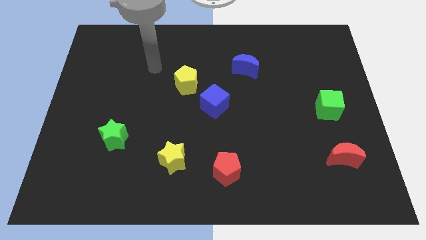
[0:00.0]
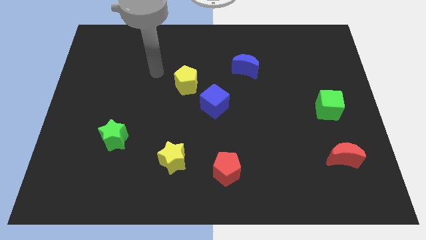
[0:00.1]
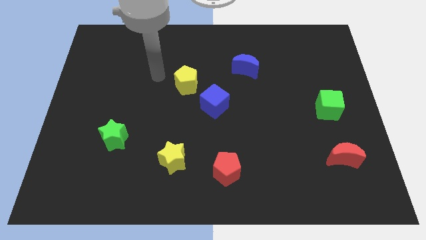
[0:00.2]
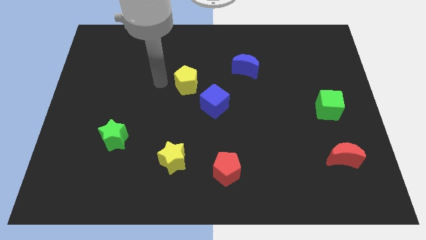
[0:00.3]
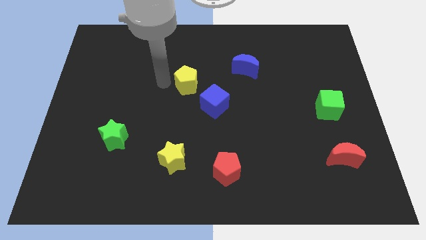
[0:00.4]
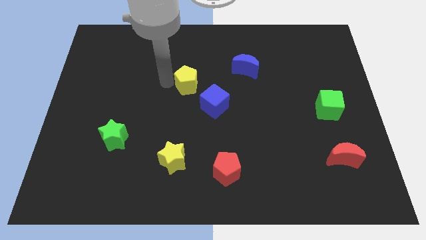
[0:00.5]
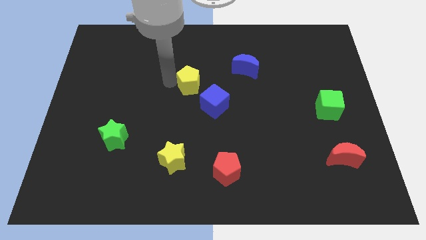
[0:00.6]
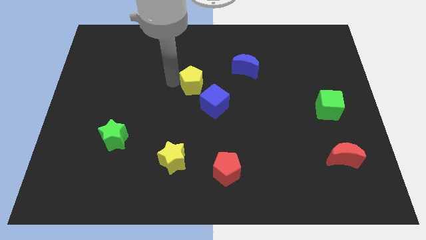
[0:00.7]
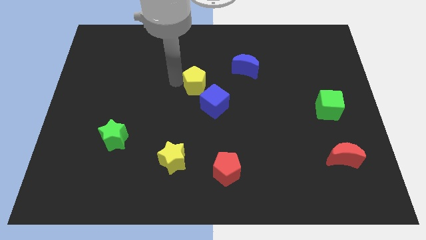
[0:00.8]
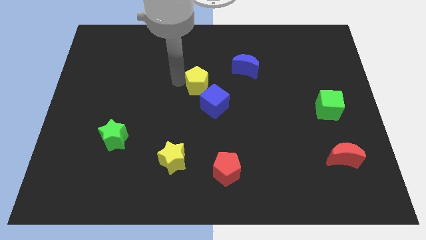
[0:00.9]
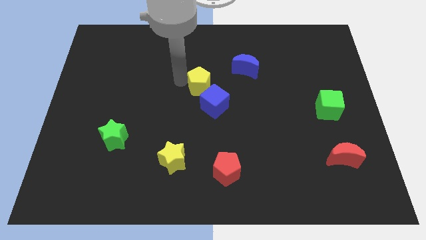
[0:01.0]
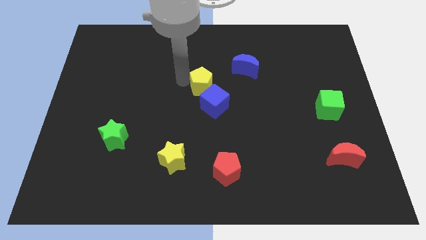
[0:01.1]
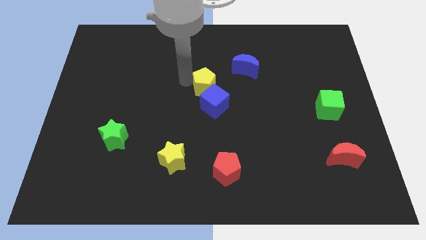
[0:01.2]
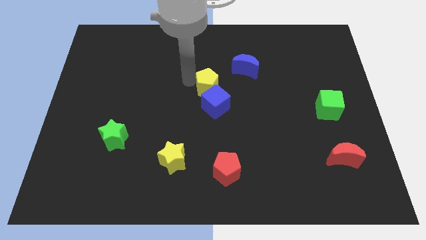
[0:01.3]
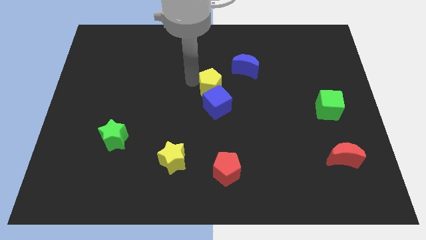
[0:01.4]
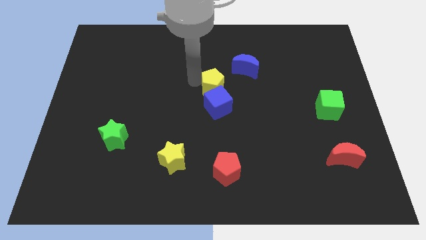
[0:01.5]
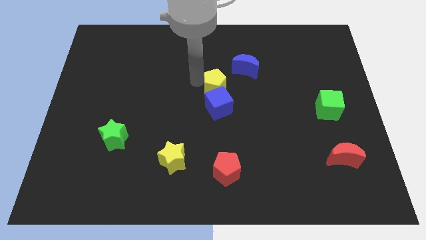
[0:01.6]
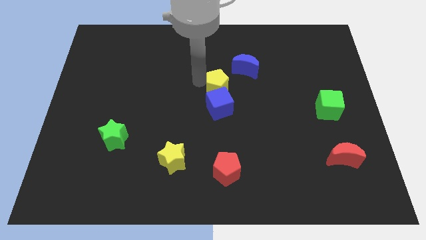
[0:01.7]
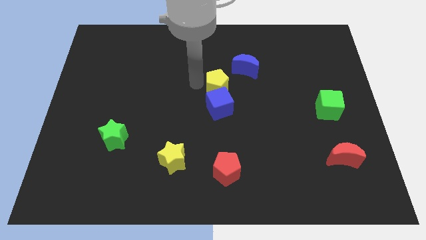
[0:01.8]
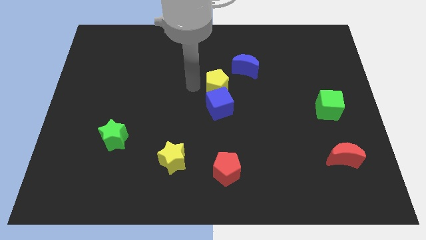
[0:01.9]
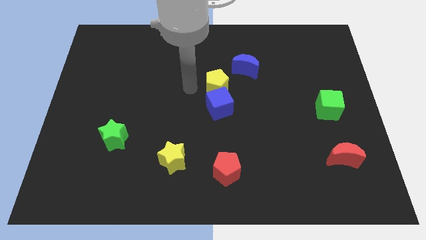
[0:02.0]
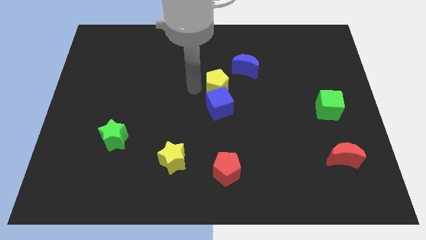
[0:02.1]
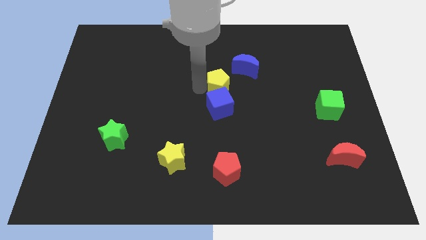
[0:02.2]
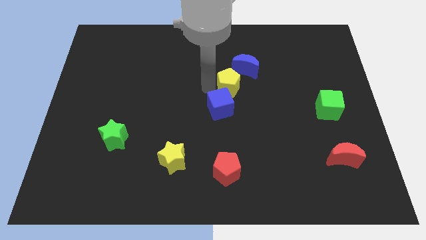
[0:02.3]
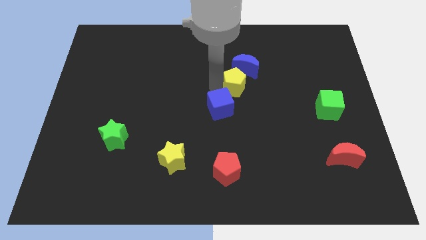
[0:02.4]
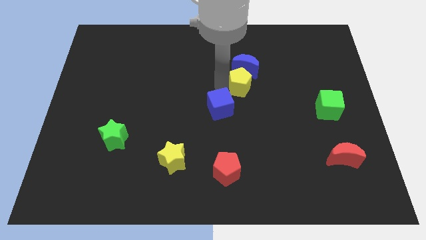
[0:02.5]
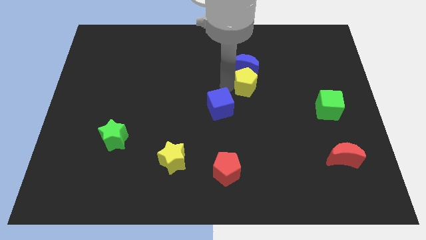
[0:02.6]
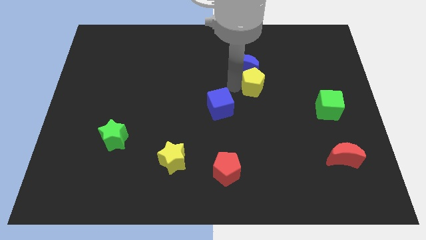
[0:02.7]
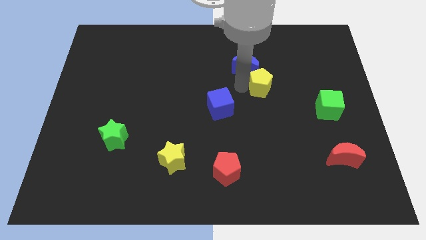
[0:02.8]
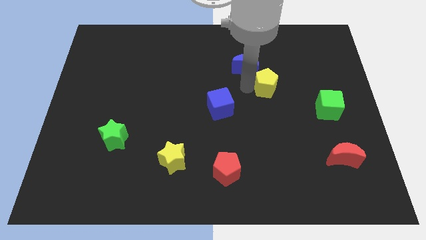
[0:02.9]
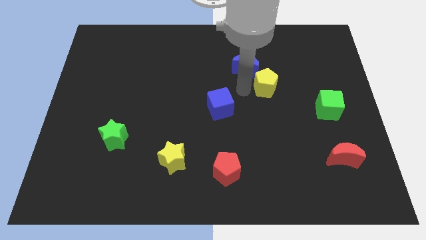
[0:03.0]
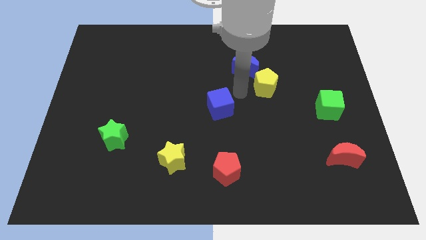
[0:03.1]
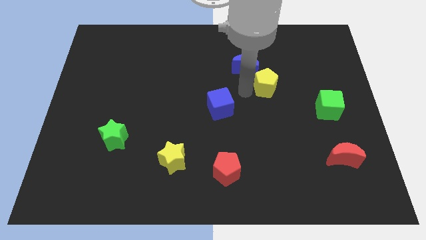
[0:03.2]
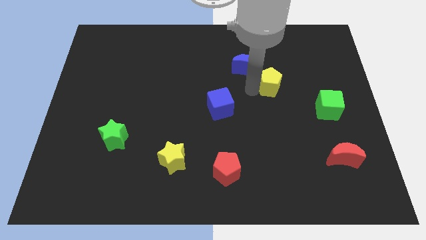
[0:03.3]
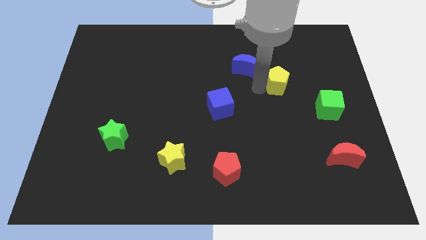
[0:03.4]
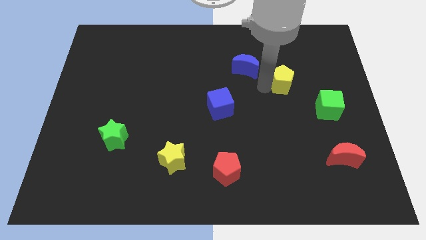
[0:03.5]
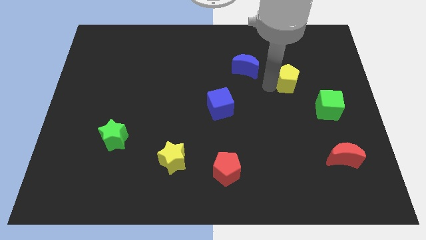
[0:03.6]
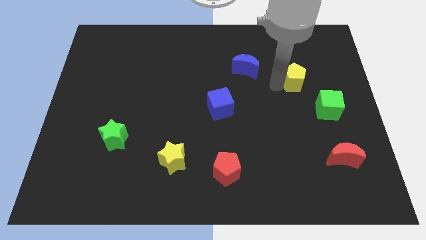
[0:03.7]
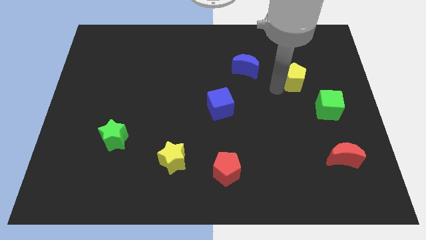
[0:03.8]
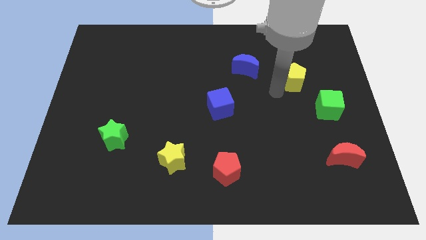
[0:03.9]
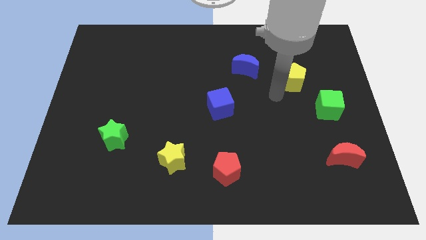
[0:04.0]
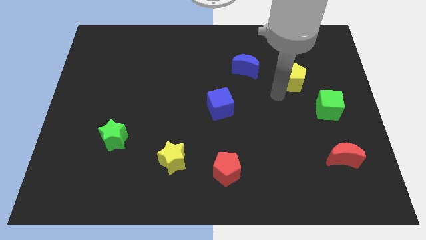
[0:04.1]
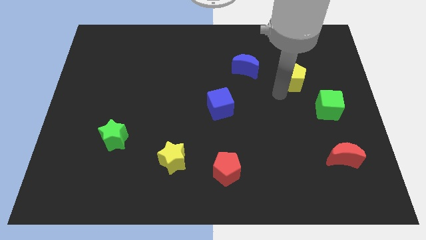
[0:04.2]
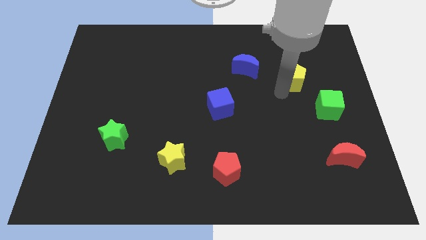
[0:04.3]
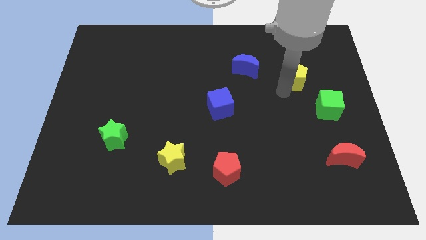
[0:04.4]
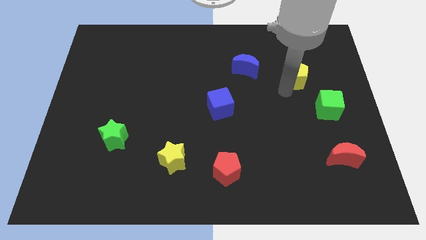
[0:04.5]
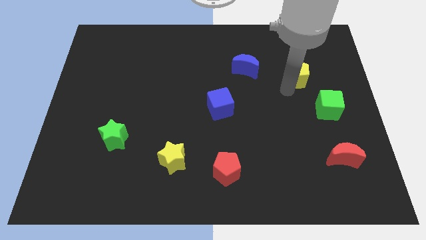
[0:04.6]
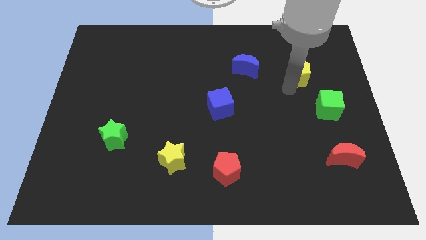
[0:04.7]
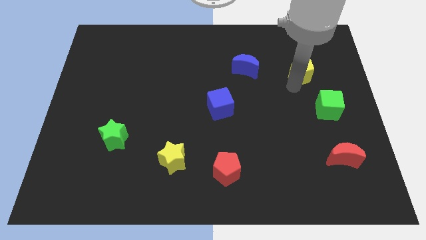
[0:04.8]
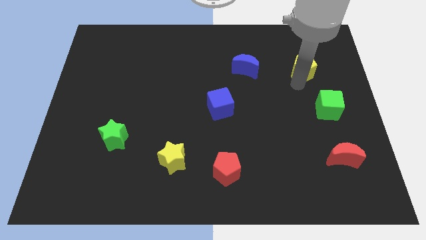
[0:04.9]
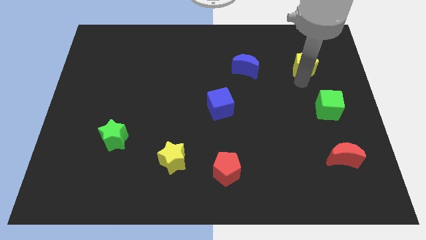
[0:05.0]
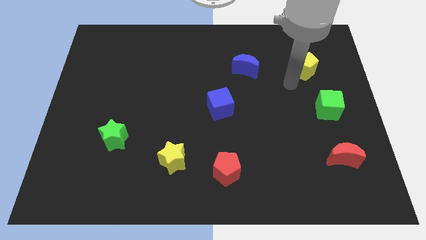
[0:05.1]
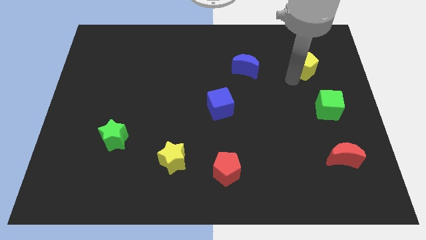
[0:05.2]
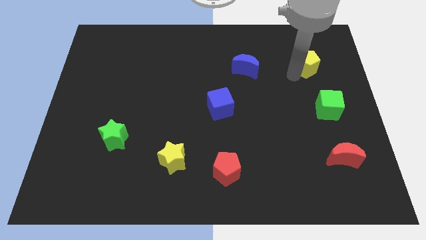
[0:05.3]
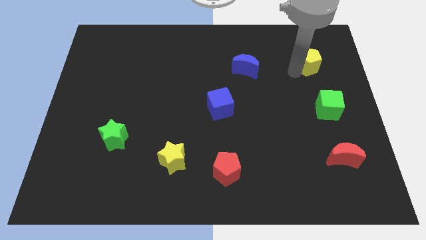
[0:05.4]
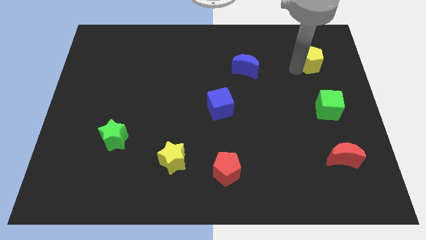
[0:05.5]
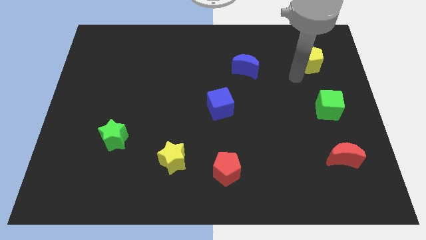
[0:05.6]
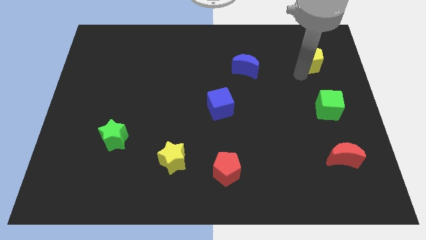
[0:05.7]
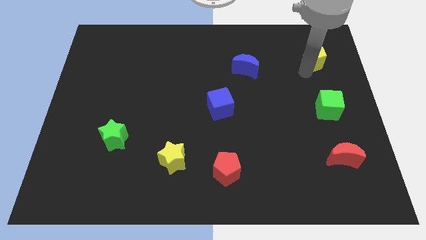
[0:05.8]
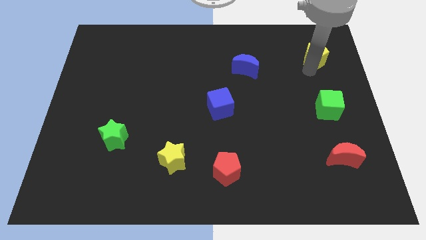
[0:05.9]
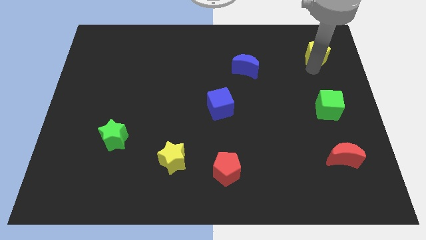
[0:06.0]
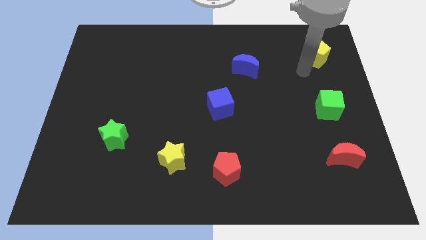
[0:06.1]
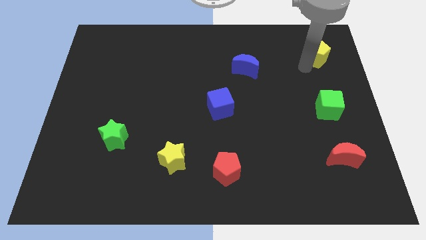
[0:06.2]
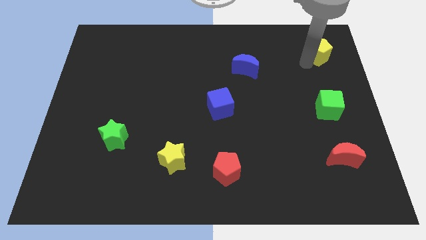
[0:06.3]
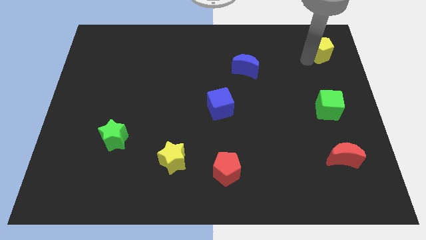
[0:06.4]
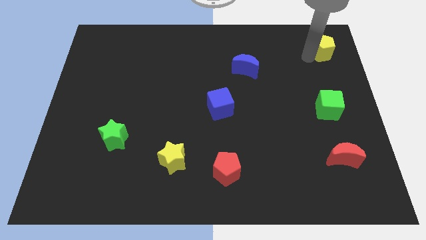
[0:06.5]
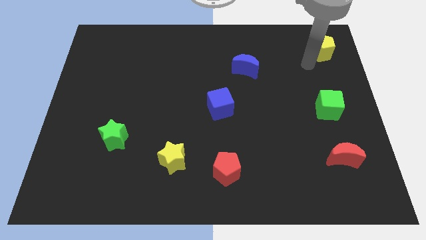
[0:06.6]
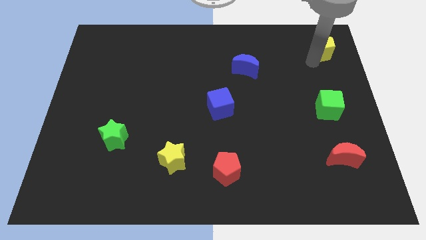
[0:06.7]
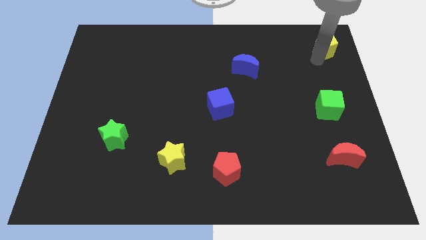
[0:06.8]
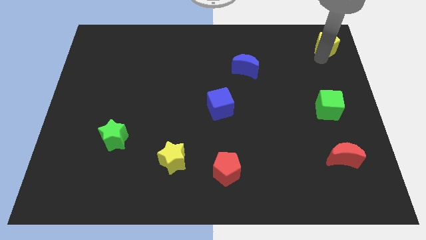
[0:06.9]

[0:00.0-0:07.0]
put the yellow pentagon to the upper right corner
